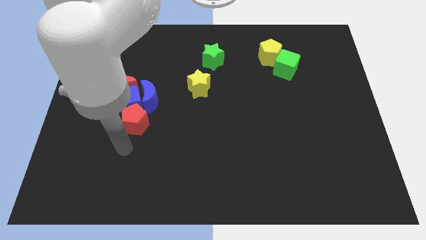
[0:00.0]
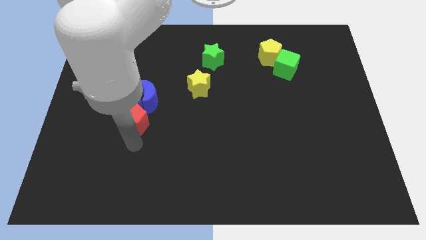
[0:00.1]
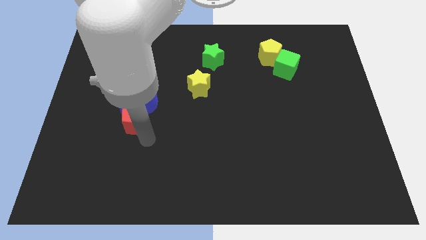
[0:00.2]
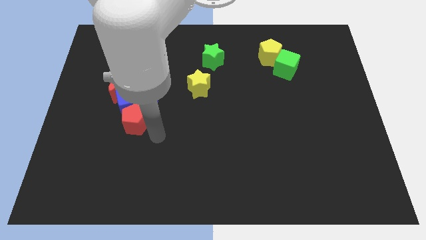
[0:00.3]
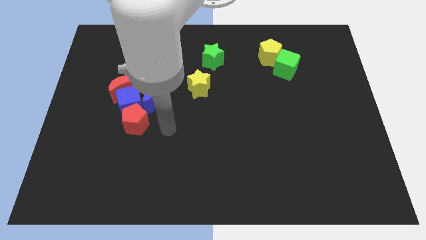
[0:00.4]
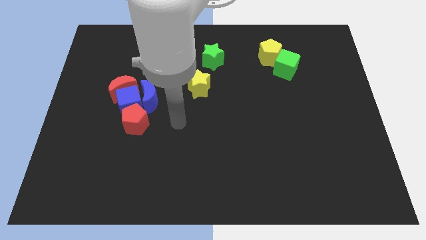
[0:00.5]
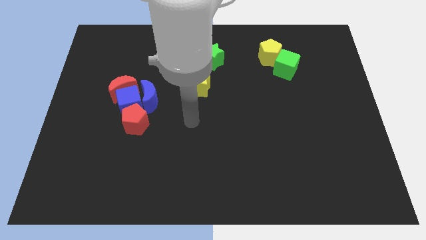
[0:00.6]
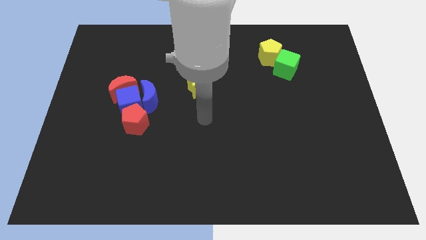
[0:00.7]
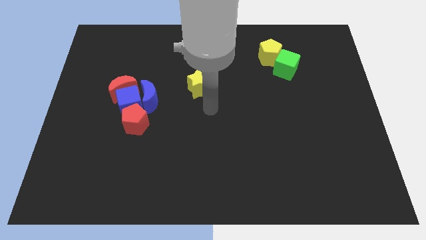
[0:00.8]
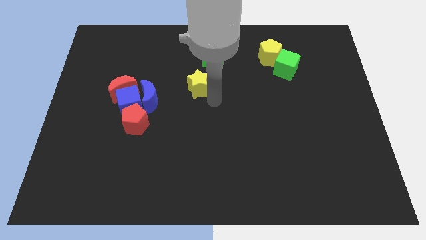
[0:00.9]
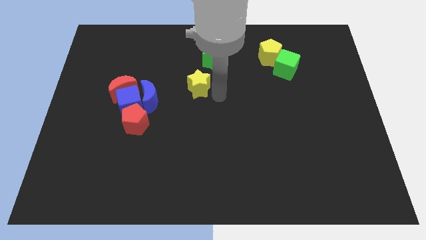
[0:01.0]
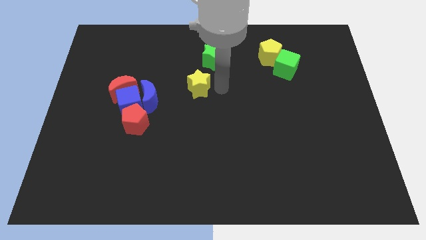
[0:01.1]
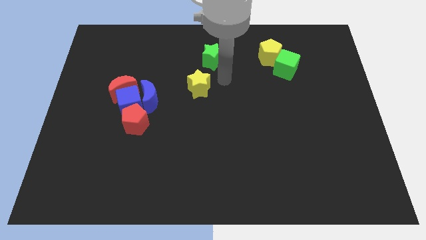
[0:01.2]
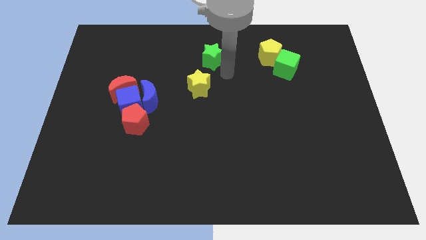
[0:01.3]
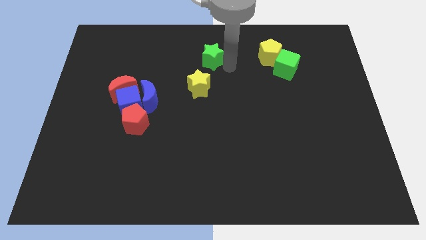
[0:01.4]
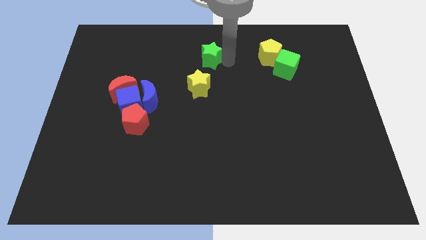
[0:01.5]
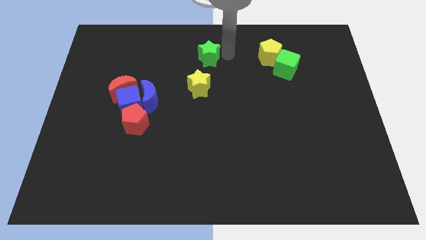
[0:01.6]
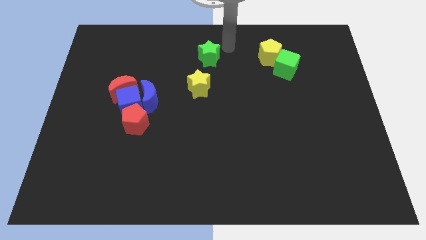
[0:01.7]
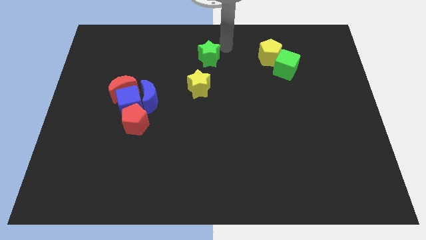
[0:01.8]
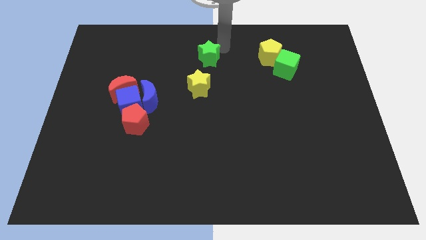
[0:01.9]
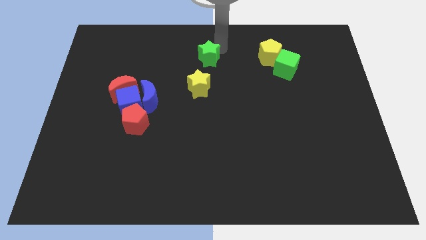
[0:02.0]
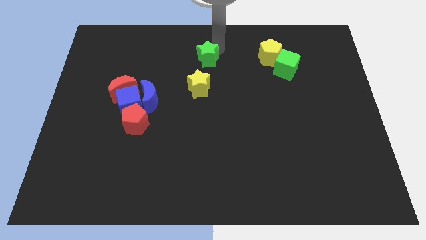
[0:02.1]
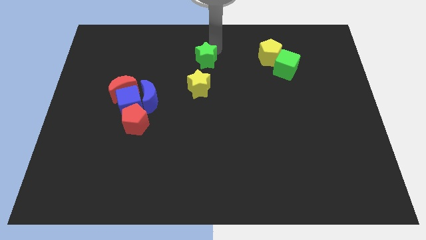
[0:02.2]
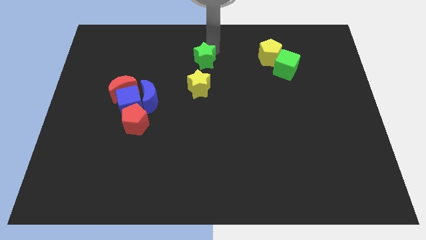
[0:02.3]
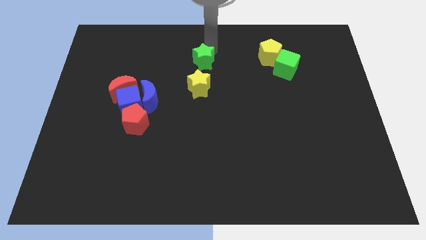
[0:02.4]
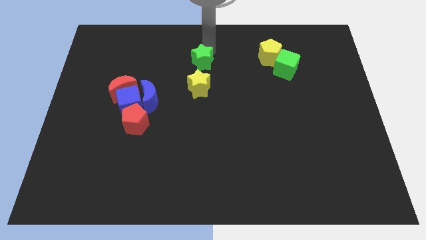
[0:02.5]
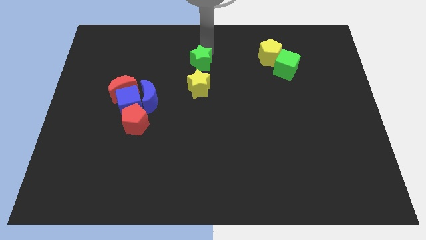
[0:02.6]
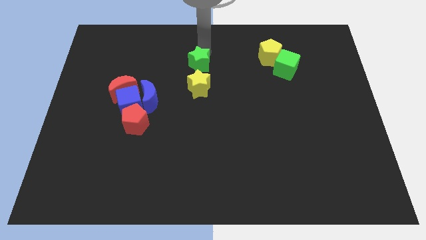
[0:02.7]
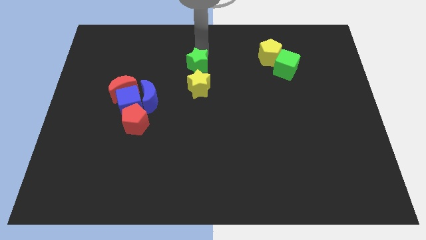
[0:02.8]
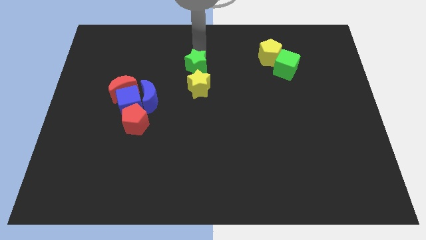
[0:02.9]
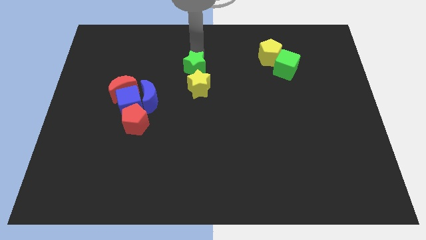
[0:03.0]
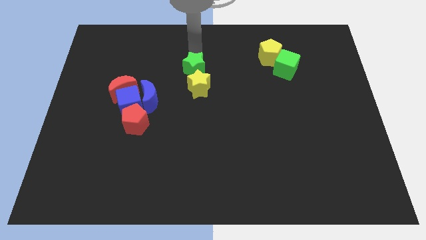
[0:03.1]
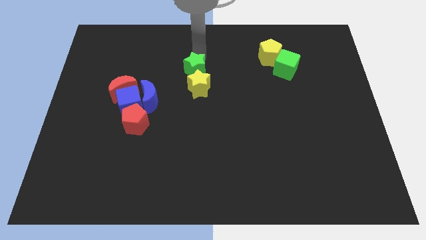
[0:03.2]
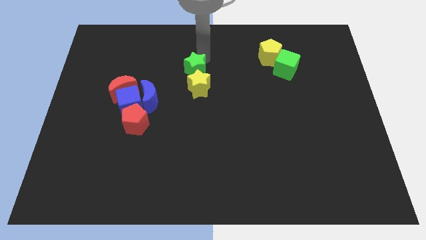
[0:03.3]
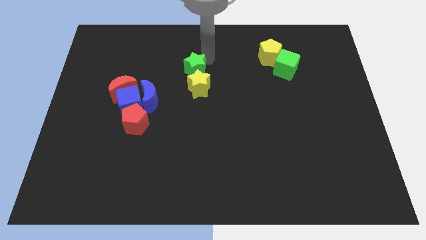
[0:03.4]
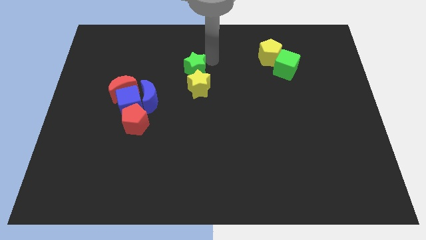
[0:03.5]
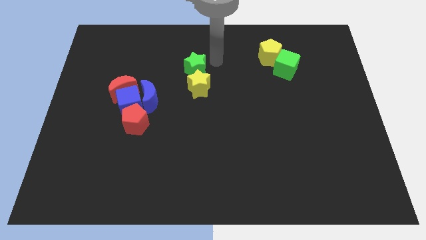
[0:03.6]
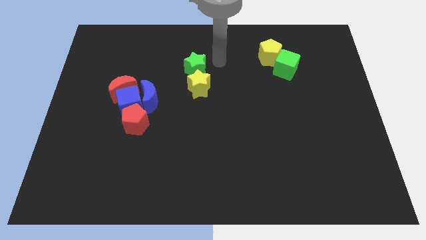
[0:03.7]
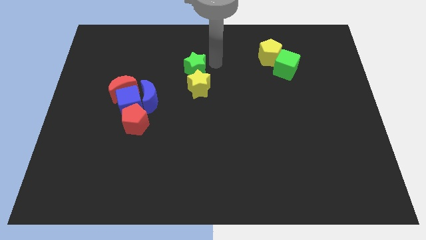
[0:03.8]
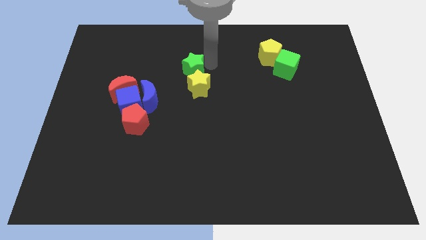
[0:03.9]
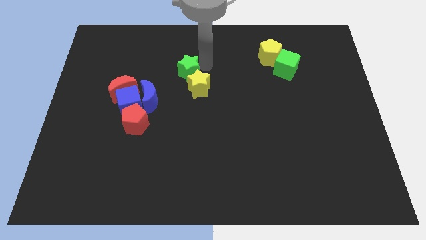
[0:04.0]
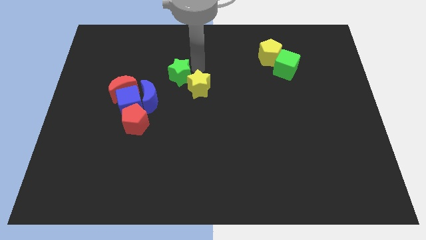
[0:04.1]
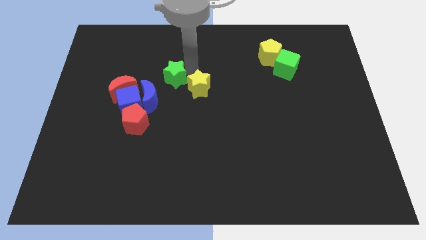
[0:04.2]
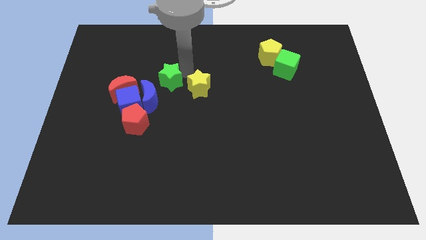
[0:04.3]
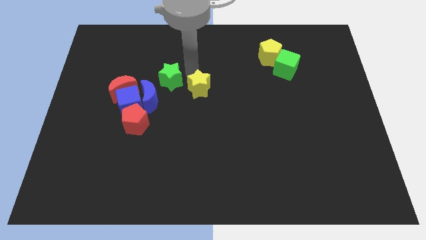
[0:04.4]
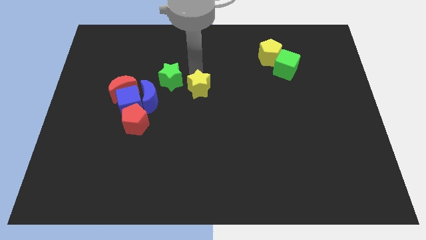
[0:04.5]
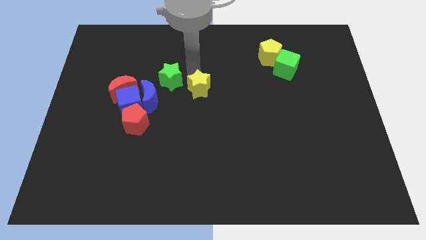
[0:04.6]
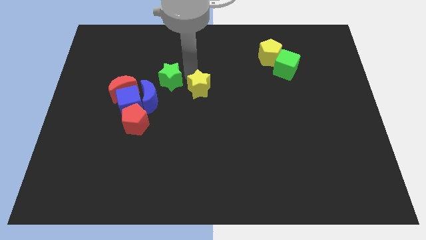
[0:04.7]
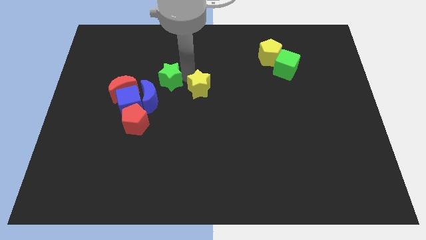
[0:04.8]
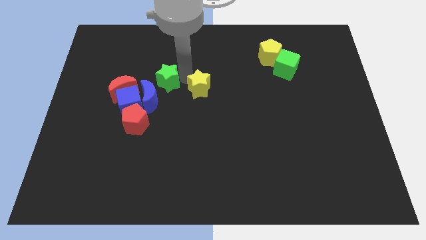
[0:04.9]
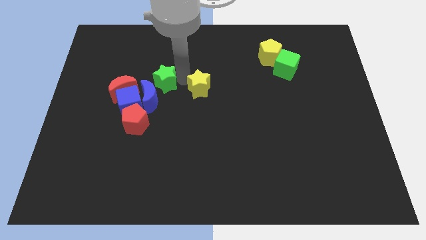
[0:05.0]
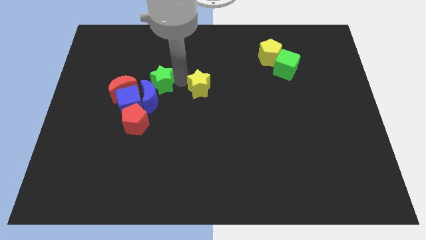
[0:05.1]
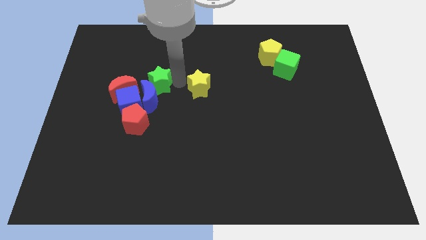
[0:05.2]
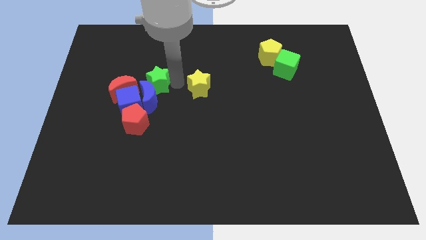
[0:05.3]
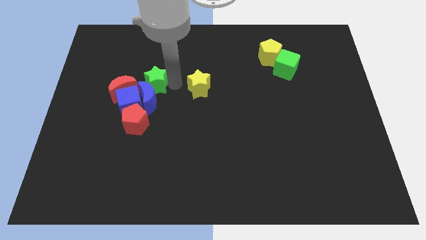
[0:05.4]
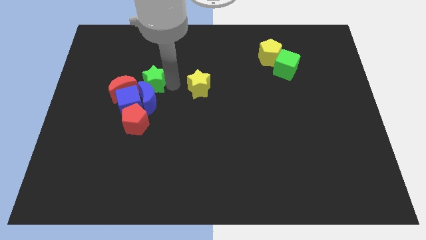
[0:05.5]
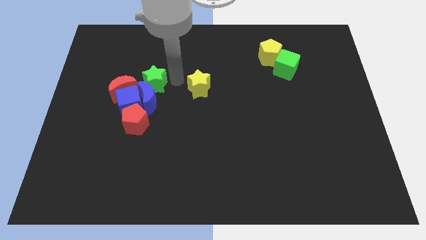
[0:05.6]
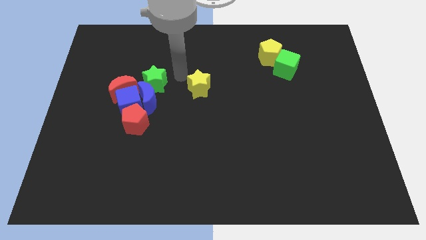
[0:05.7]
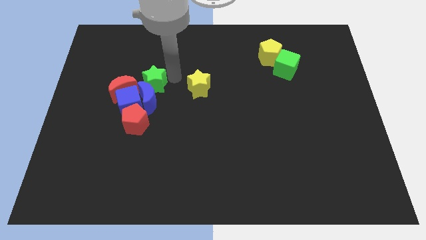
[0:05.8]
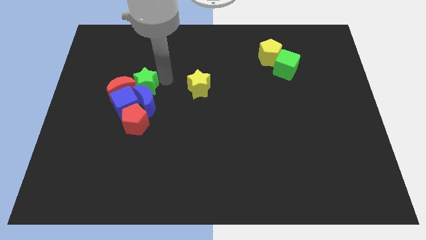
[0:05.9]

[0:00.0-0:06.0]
move the green star close to the red moon
